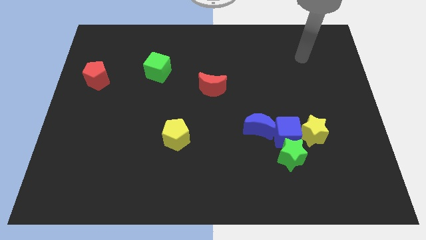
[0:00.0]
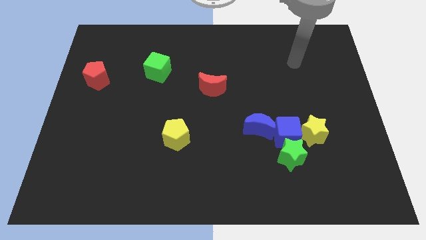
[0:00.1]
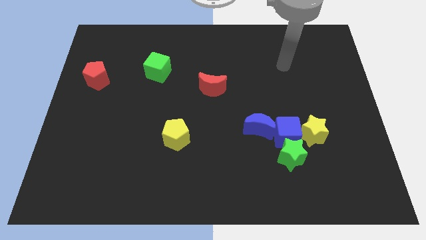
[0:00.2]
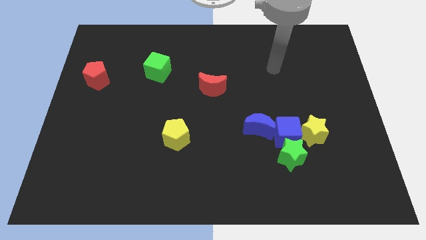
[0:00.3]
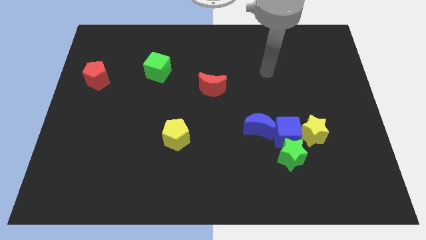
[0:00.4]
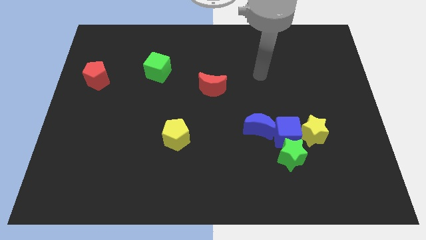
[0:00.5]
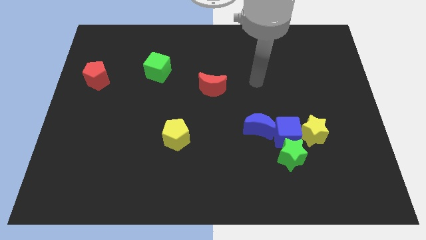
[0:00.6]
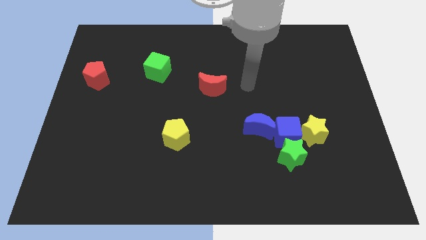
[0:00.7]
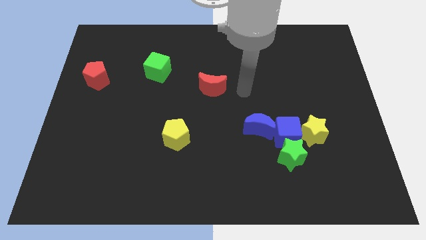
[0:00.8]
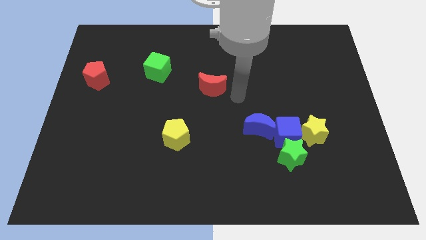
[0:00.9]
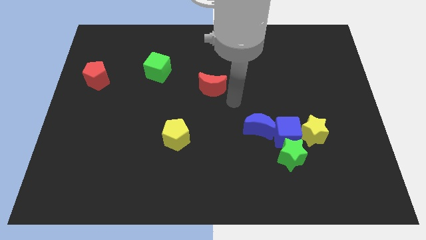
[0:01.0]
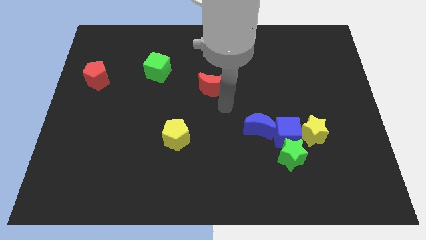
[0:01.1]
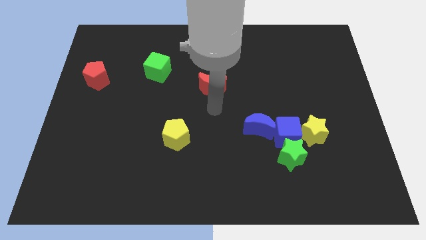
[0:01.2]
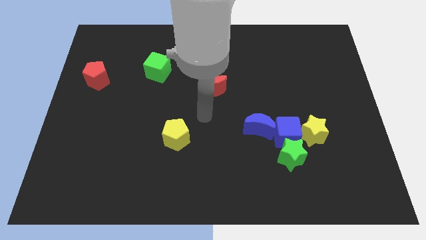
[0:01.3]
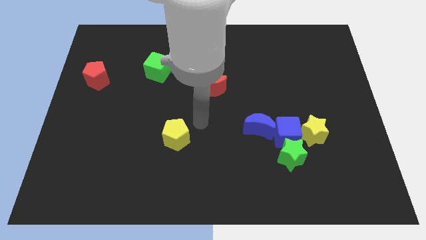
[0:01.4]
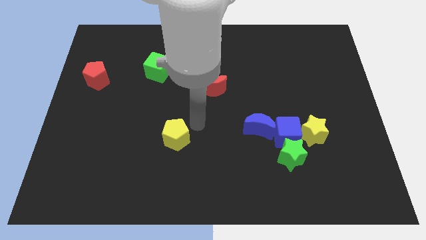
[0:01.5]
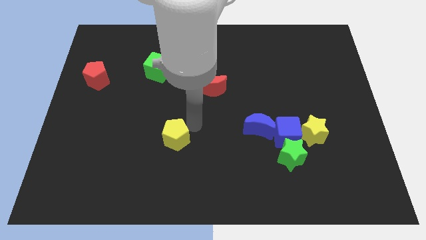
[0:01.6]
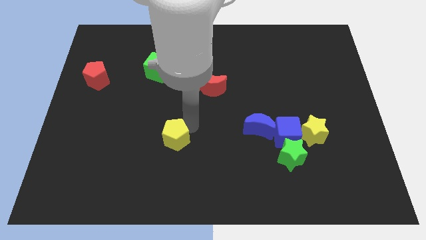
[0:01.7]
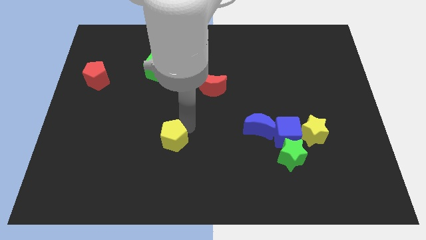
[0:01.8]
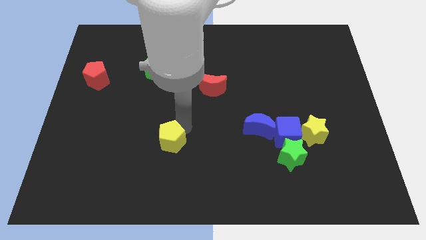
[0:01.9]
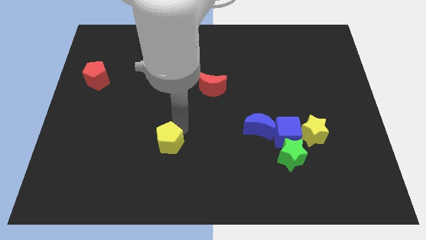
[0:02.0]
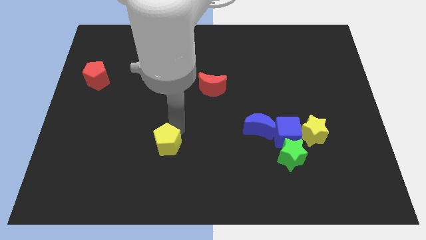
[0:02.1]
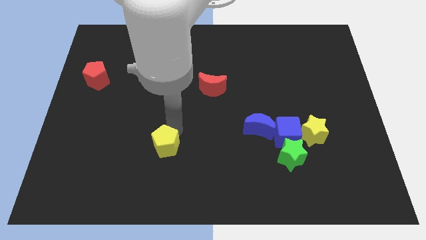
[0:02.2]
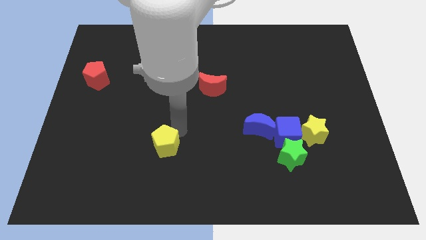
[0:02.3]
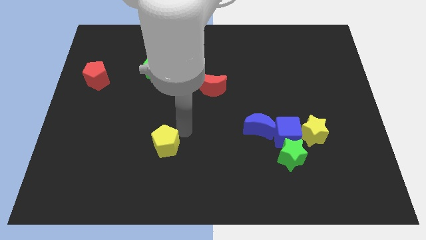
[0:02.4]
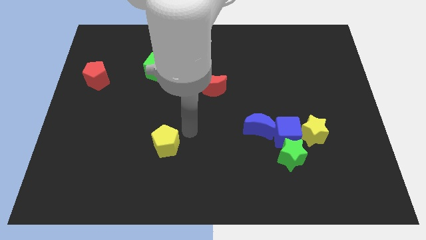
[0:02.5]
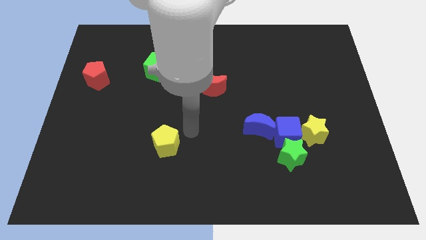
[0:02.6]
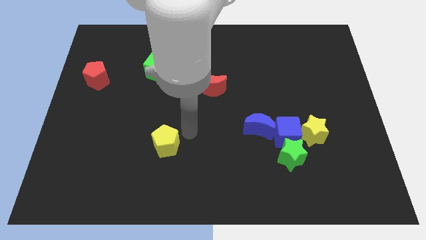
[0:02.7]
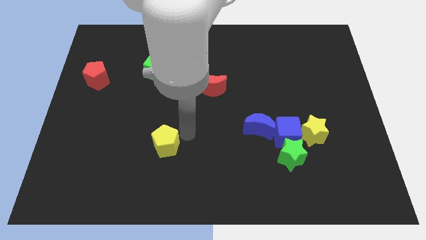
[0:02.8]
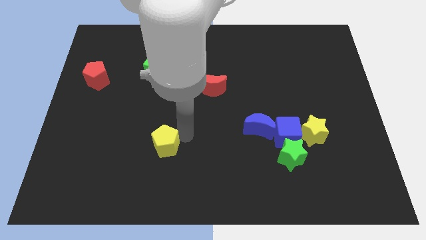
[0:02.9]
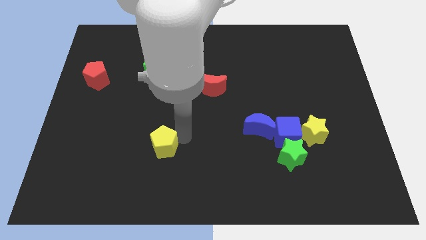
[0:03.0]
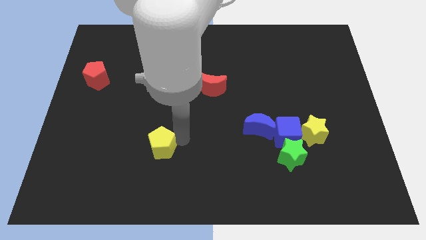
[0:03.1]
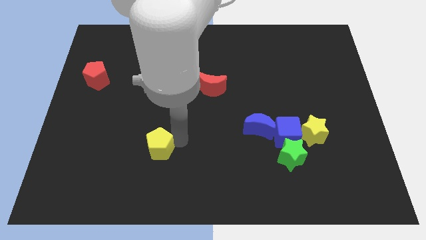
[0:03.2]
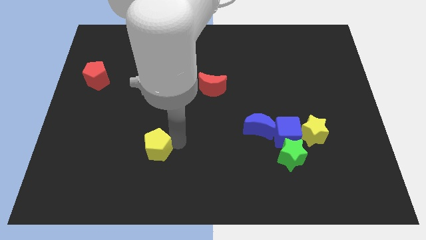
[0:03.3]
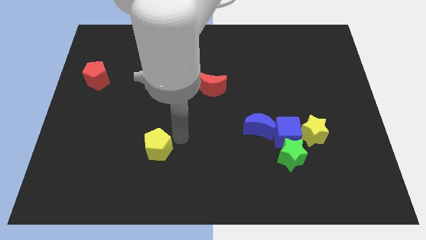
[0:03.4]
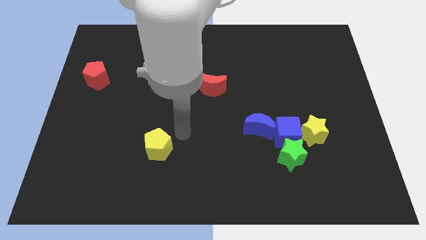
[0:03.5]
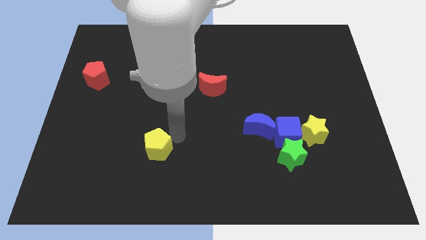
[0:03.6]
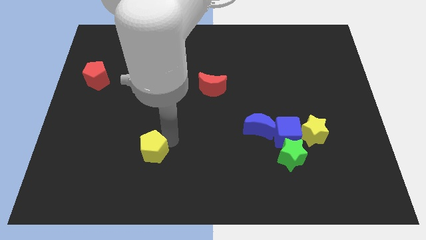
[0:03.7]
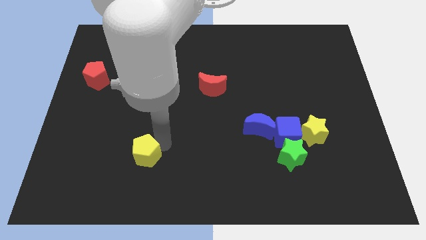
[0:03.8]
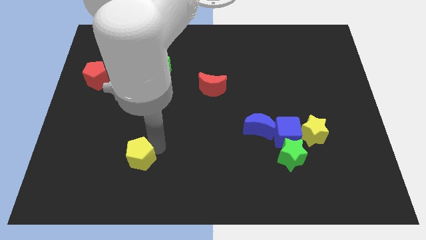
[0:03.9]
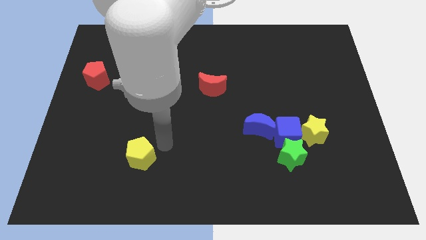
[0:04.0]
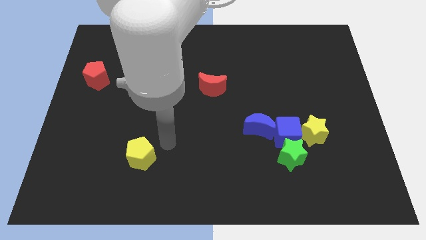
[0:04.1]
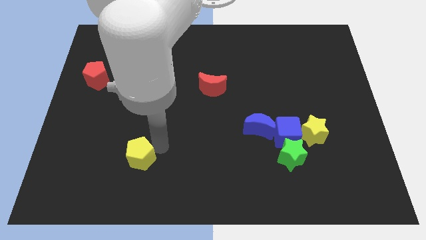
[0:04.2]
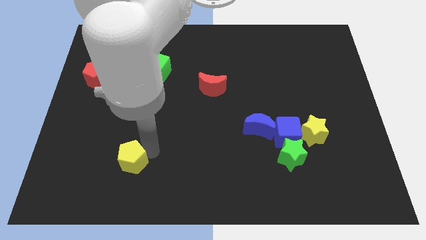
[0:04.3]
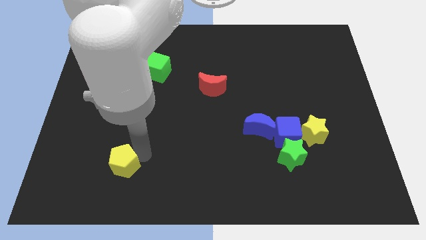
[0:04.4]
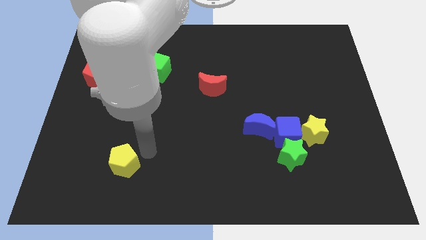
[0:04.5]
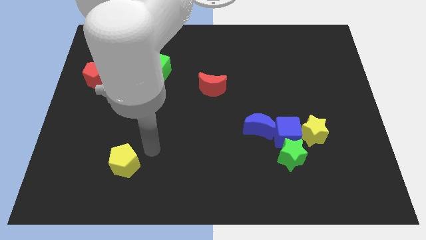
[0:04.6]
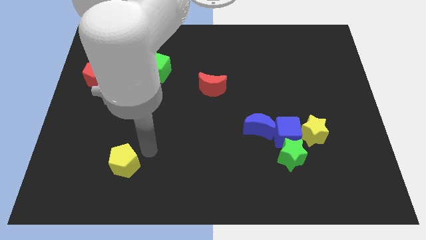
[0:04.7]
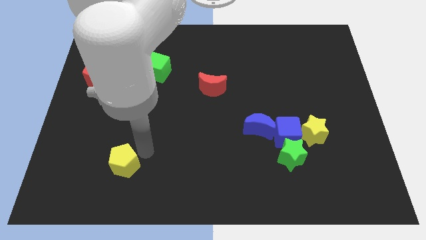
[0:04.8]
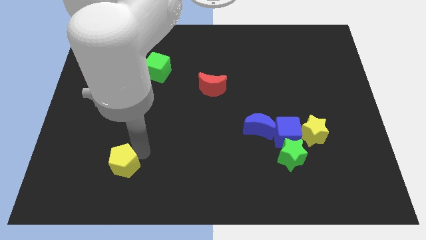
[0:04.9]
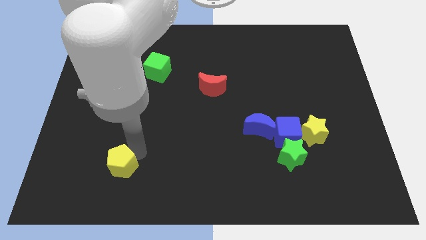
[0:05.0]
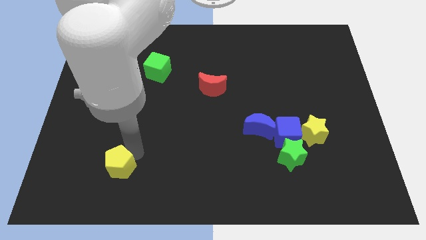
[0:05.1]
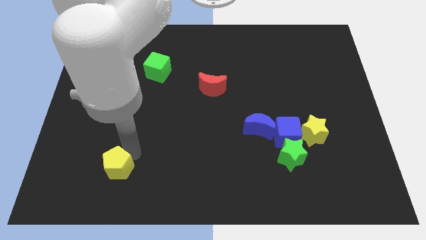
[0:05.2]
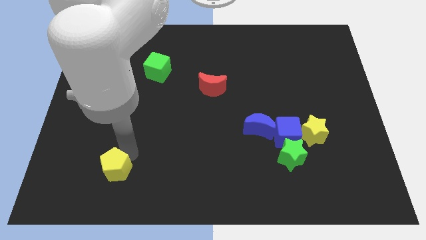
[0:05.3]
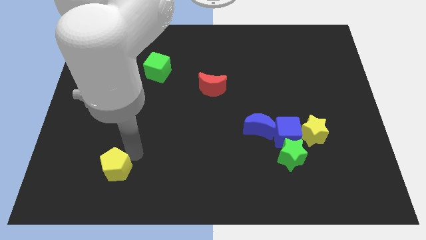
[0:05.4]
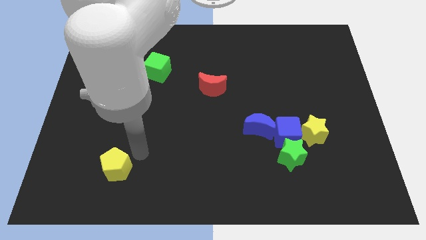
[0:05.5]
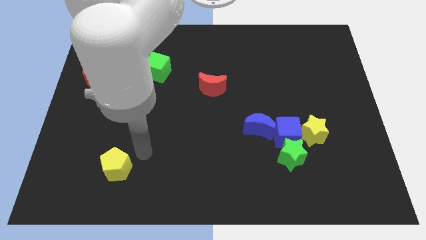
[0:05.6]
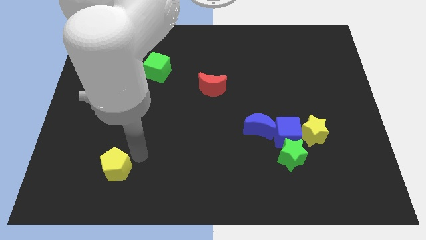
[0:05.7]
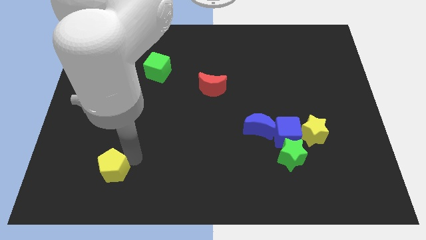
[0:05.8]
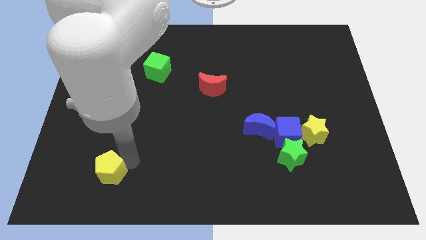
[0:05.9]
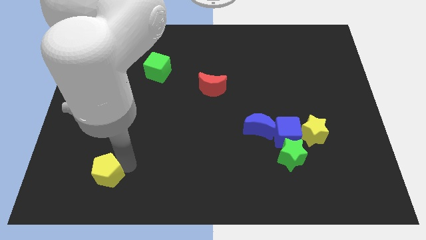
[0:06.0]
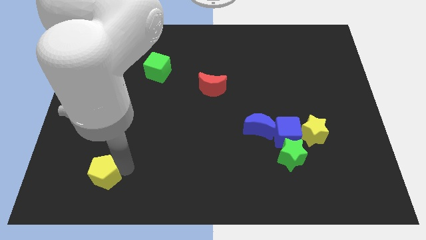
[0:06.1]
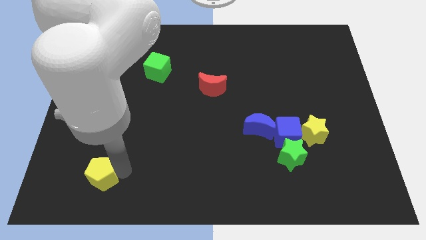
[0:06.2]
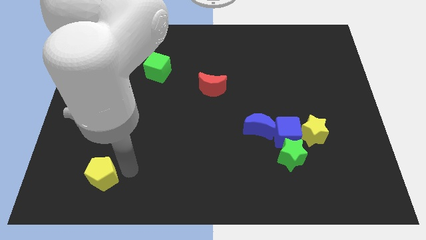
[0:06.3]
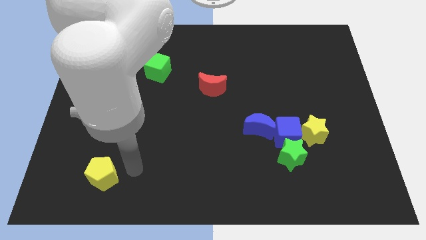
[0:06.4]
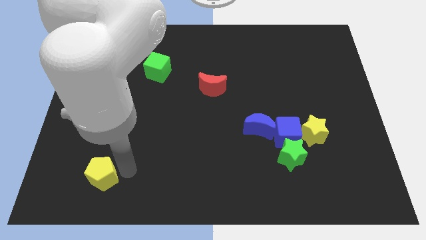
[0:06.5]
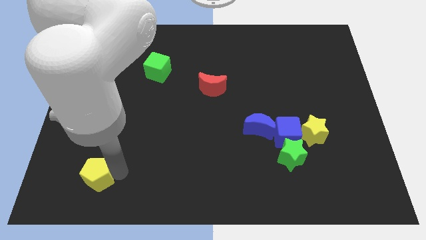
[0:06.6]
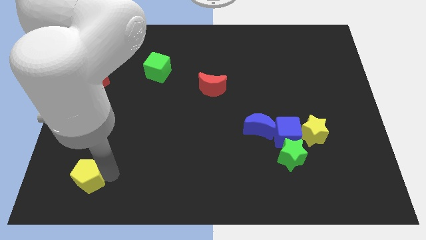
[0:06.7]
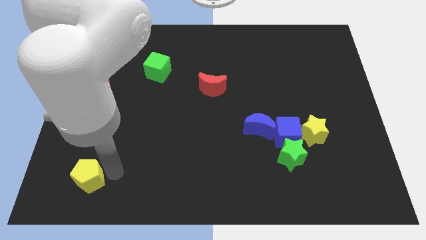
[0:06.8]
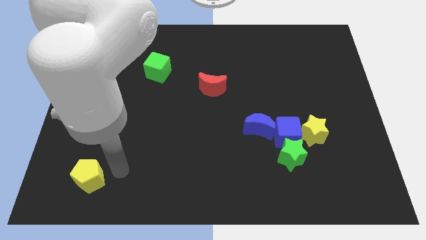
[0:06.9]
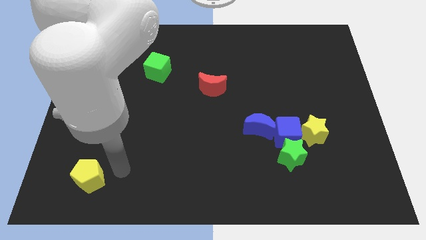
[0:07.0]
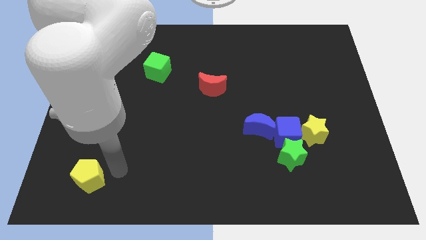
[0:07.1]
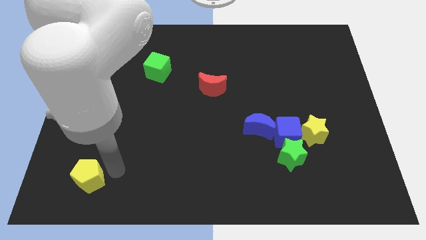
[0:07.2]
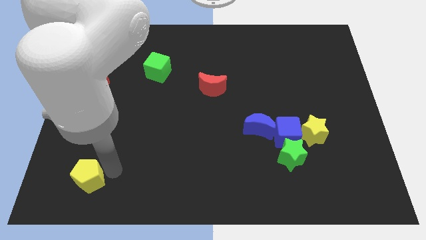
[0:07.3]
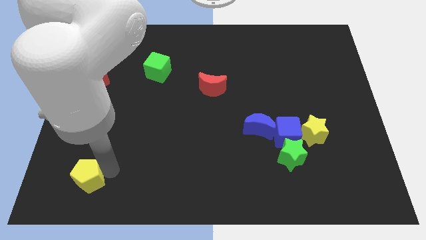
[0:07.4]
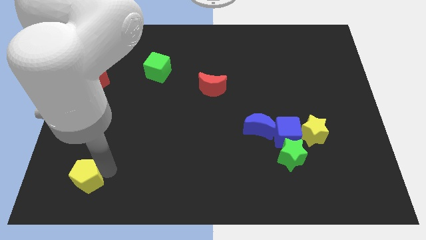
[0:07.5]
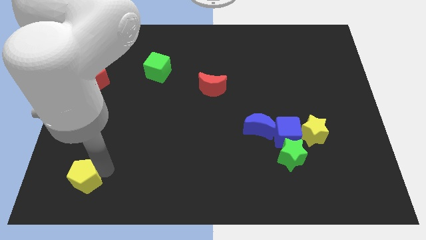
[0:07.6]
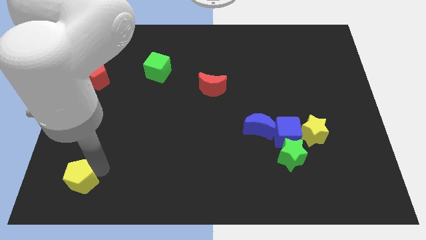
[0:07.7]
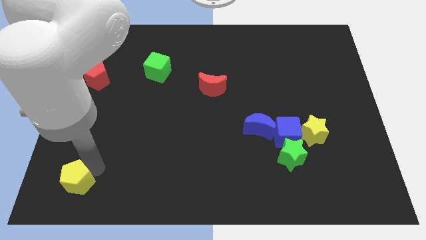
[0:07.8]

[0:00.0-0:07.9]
put the yellow pentagon to the bottom left of the board
